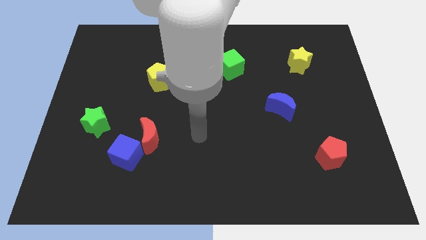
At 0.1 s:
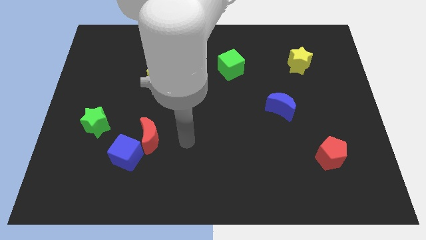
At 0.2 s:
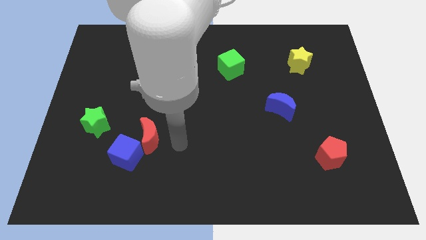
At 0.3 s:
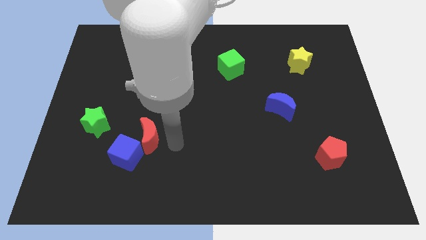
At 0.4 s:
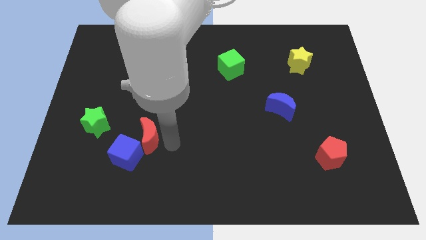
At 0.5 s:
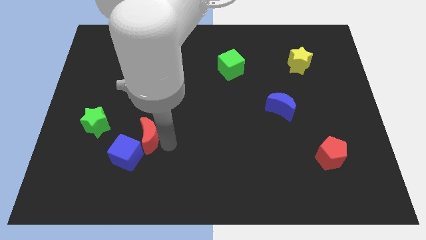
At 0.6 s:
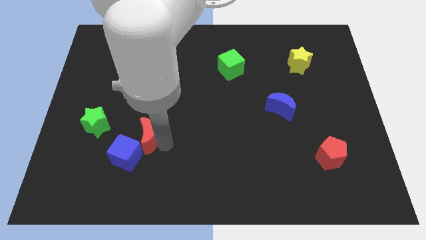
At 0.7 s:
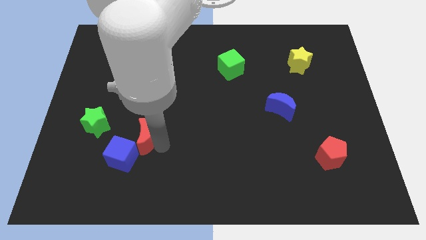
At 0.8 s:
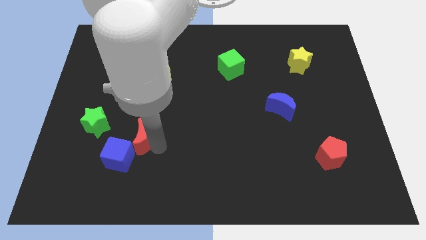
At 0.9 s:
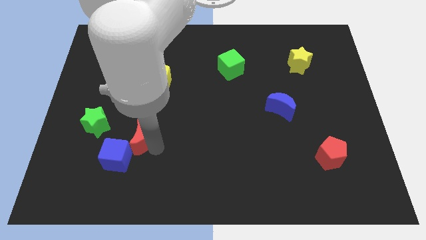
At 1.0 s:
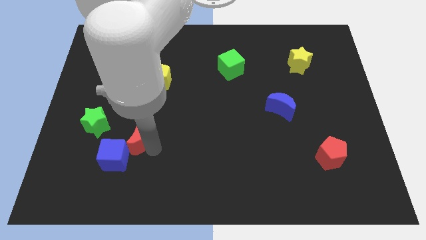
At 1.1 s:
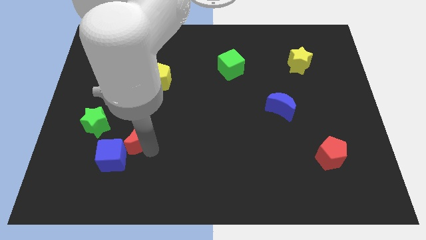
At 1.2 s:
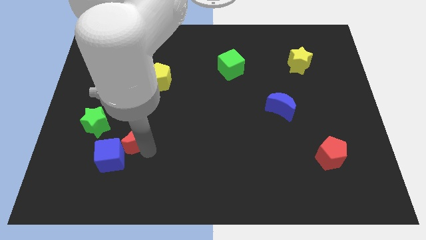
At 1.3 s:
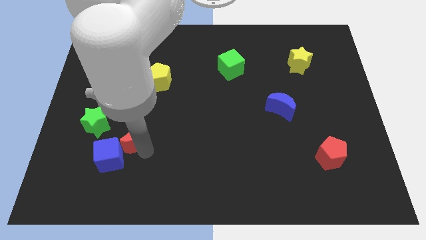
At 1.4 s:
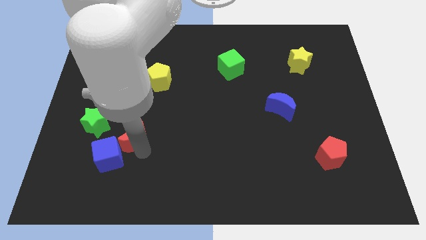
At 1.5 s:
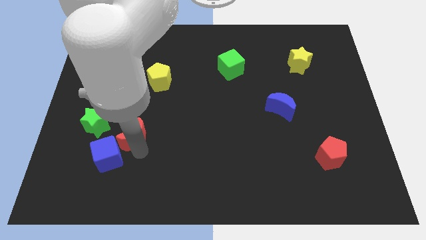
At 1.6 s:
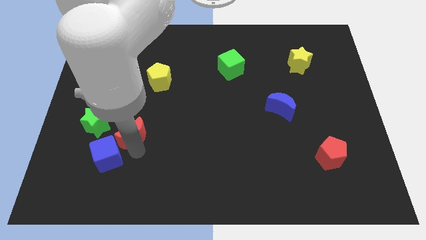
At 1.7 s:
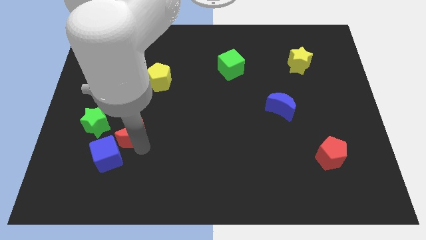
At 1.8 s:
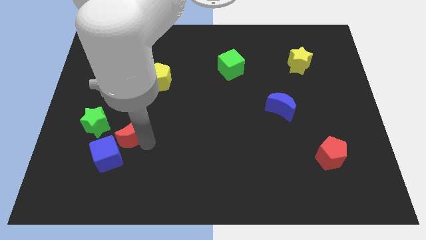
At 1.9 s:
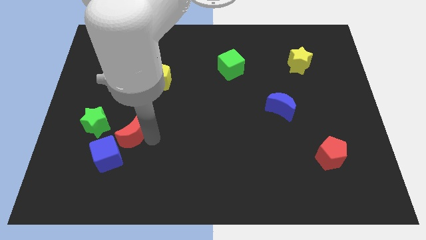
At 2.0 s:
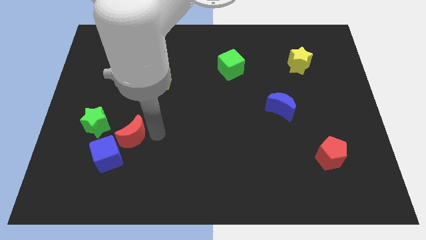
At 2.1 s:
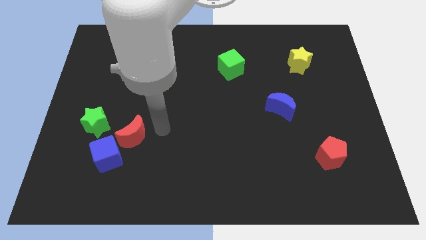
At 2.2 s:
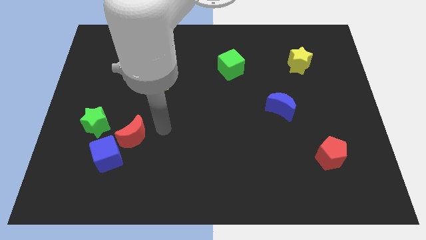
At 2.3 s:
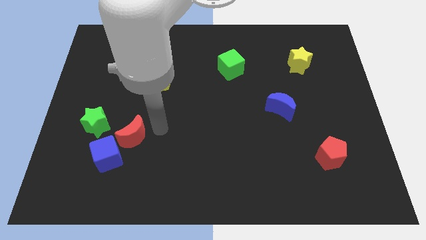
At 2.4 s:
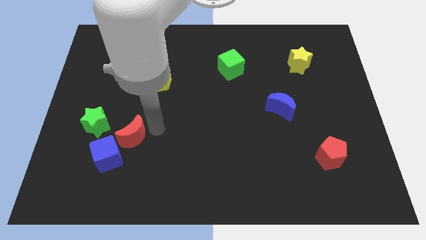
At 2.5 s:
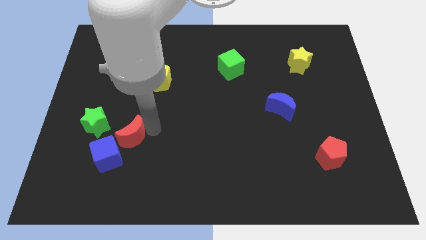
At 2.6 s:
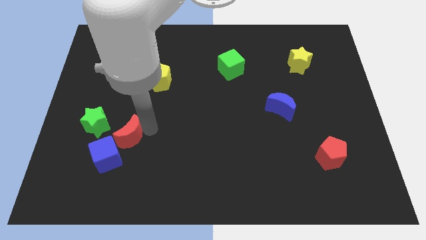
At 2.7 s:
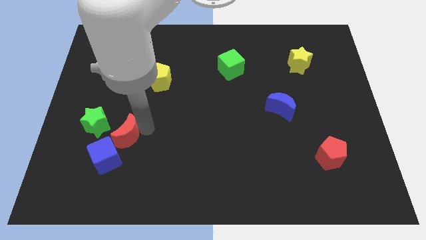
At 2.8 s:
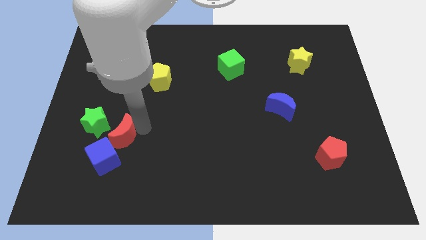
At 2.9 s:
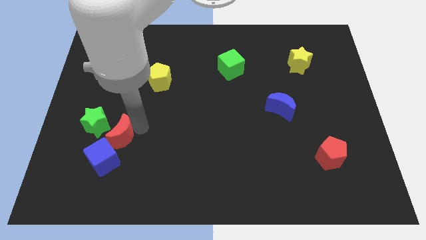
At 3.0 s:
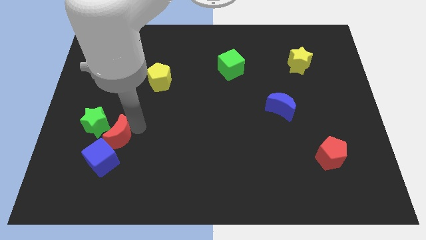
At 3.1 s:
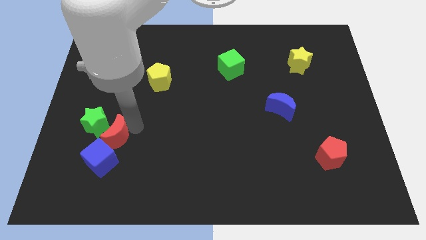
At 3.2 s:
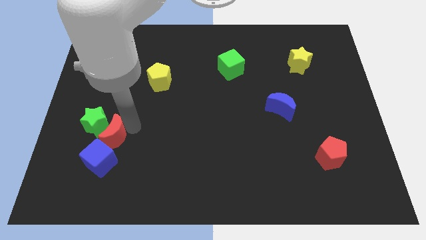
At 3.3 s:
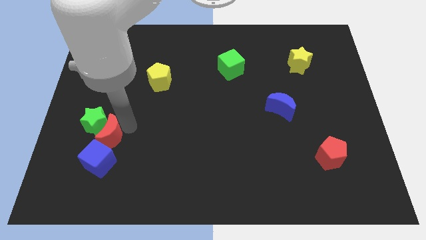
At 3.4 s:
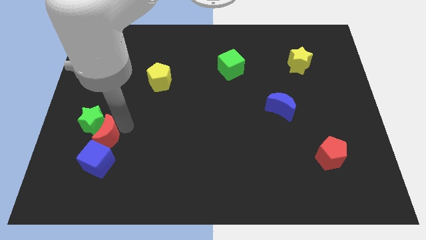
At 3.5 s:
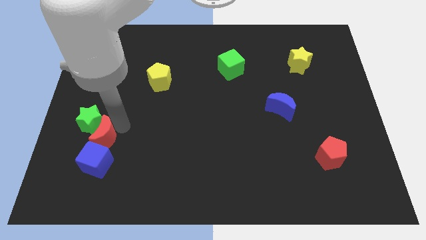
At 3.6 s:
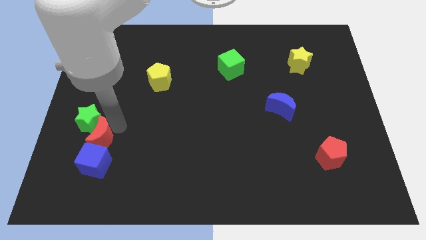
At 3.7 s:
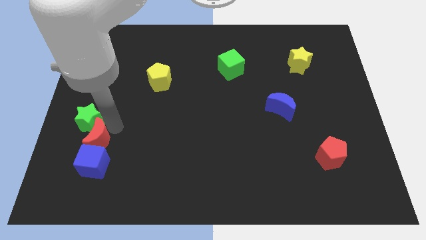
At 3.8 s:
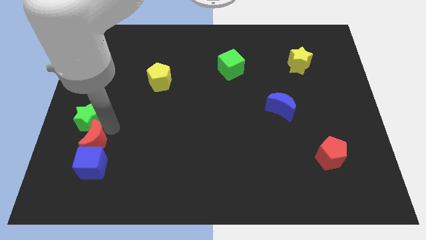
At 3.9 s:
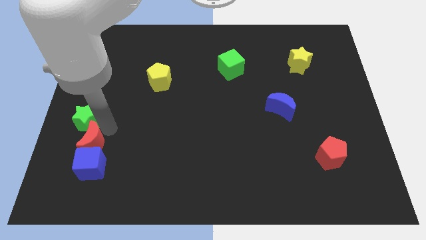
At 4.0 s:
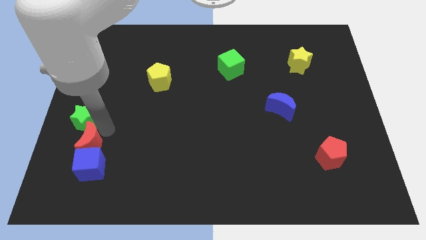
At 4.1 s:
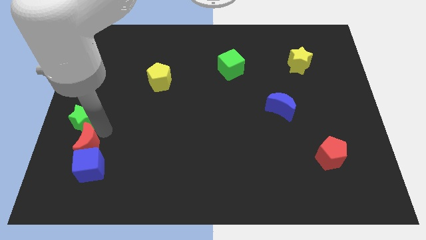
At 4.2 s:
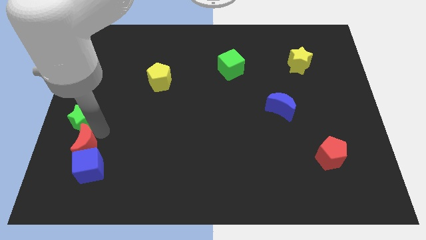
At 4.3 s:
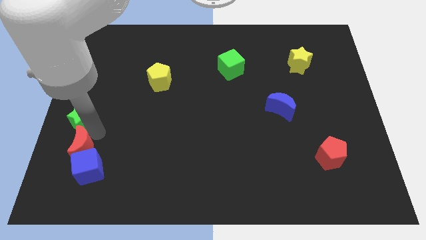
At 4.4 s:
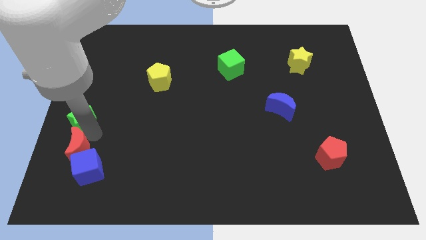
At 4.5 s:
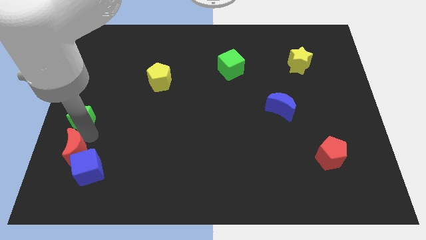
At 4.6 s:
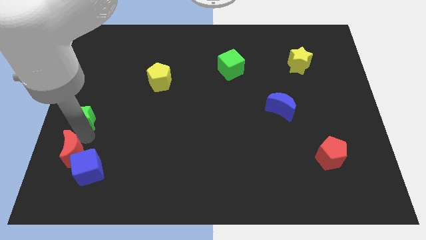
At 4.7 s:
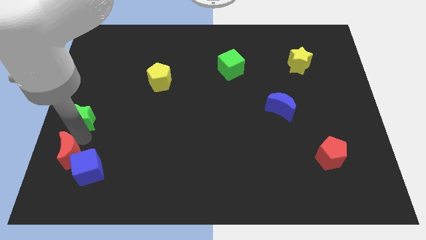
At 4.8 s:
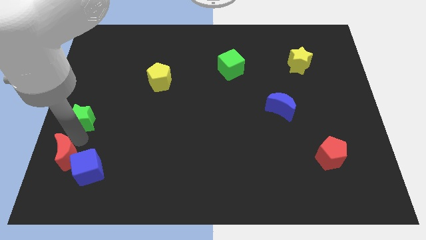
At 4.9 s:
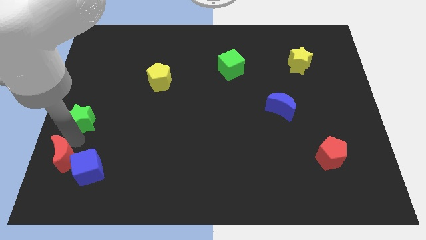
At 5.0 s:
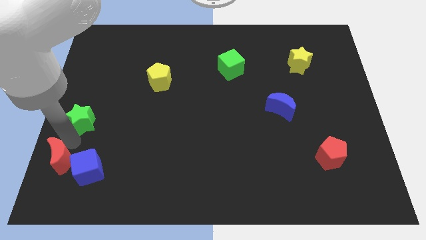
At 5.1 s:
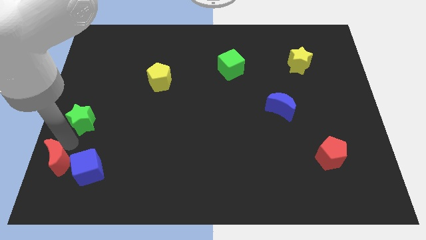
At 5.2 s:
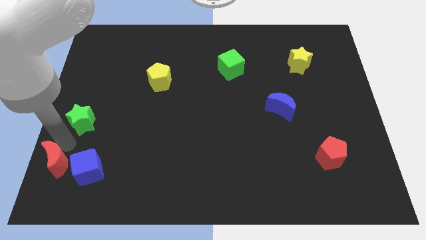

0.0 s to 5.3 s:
put the red moon to the bottom left of the board

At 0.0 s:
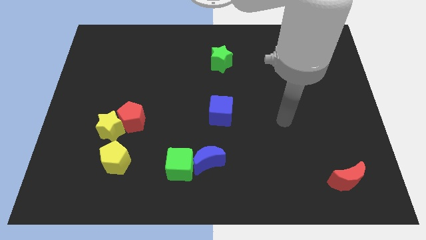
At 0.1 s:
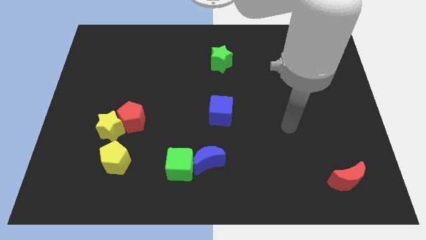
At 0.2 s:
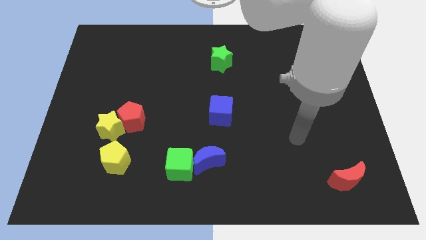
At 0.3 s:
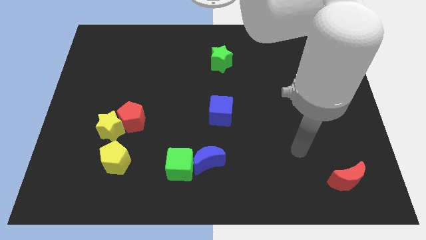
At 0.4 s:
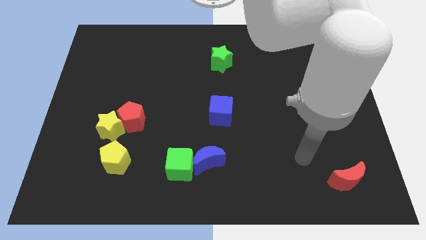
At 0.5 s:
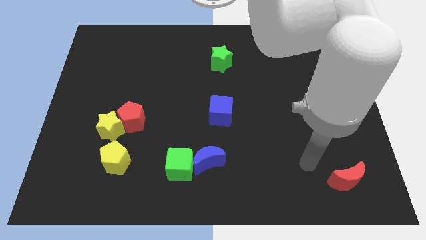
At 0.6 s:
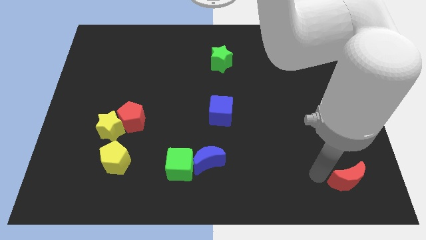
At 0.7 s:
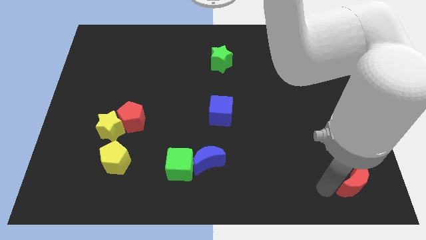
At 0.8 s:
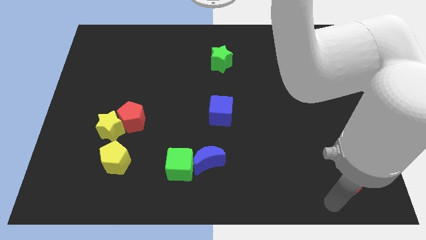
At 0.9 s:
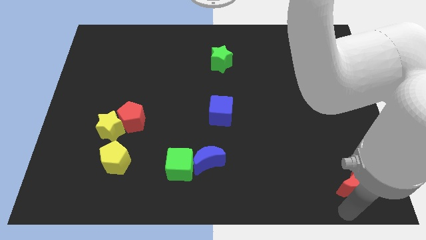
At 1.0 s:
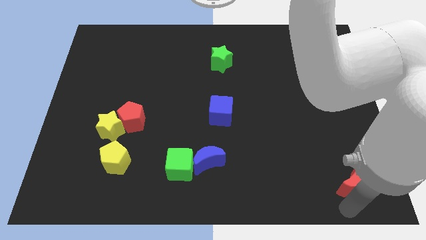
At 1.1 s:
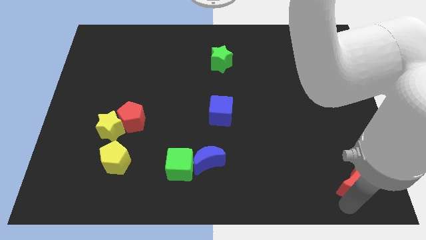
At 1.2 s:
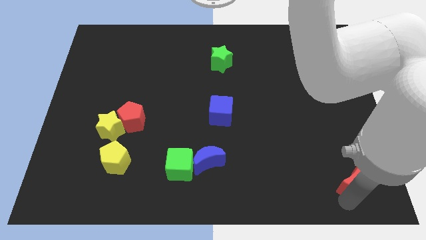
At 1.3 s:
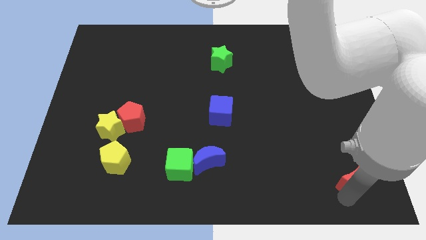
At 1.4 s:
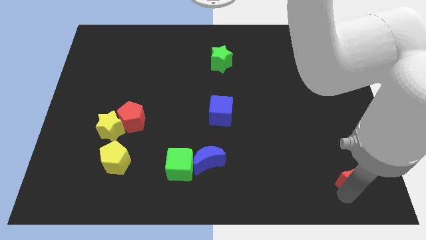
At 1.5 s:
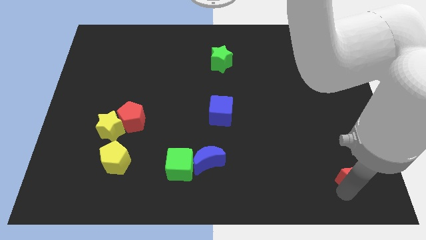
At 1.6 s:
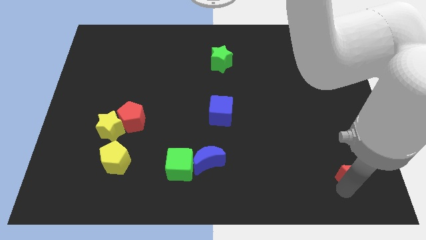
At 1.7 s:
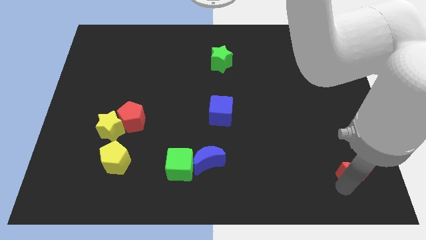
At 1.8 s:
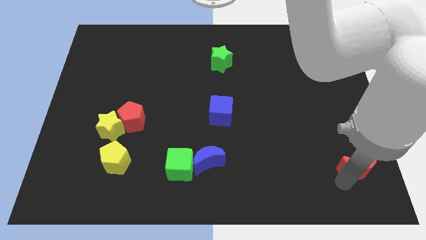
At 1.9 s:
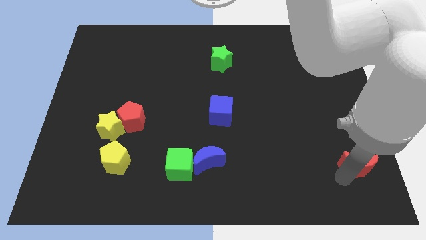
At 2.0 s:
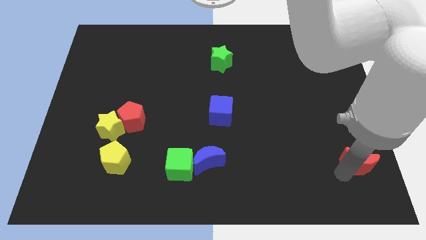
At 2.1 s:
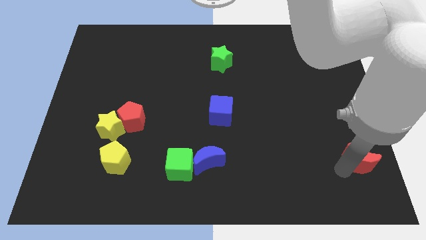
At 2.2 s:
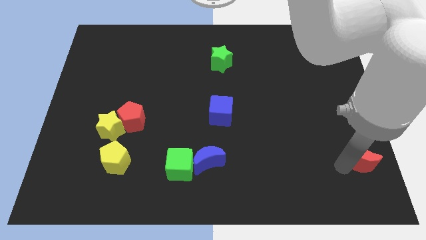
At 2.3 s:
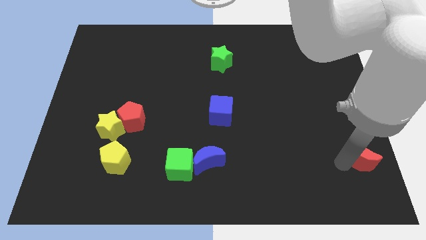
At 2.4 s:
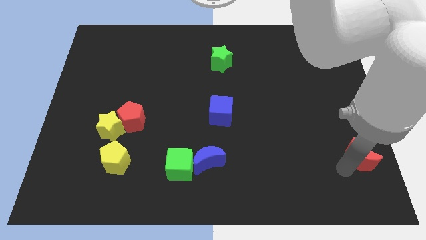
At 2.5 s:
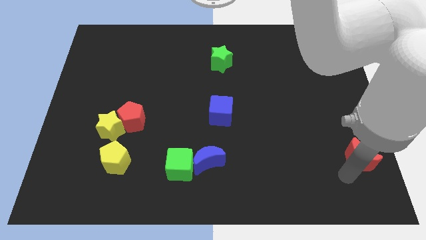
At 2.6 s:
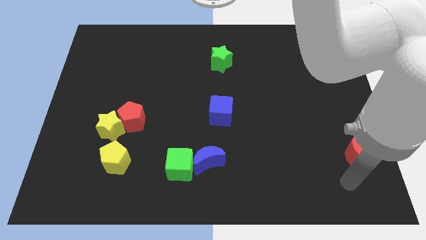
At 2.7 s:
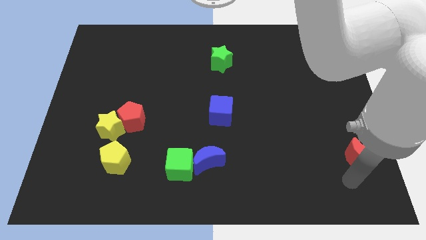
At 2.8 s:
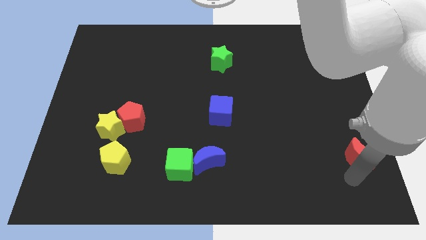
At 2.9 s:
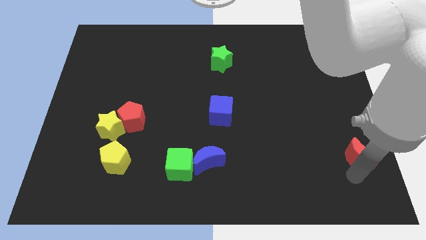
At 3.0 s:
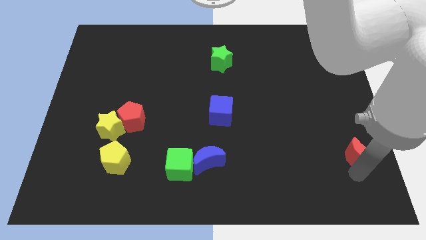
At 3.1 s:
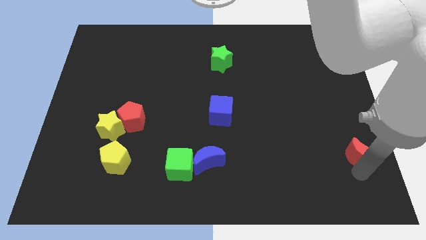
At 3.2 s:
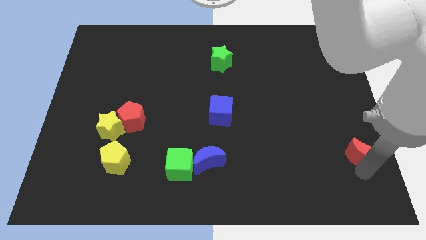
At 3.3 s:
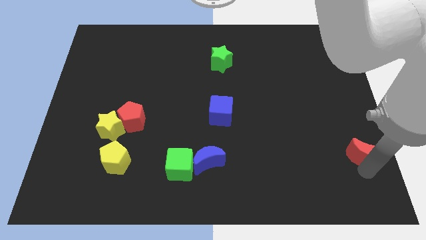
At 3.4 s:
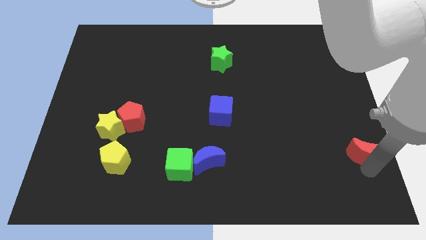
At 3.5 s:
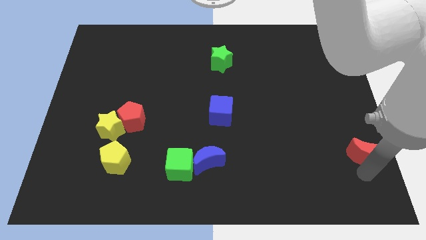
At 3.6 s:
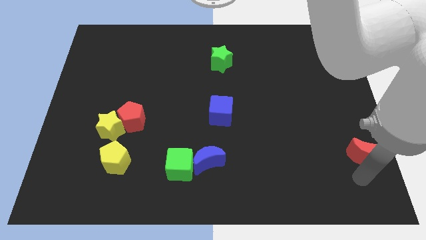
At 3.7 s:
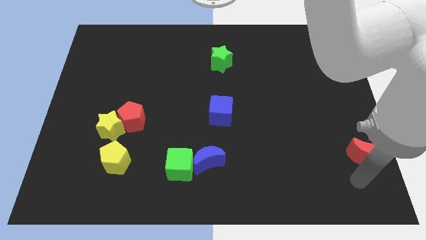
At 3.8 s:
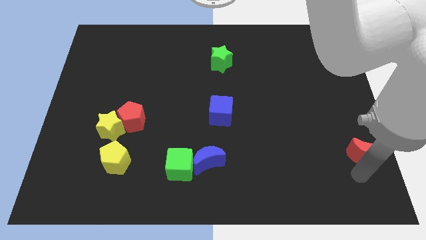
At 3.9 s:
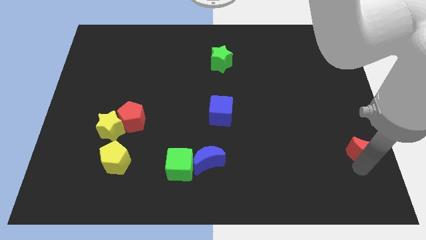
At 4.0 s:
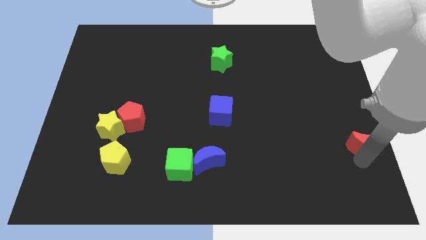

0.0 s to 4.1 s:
push the red moon to the right side
